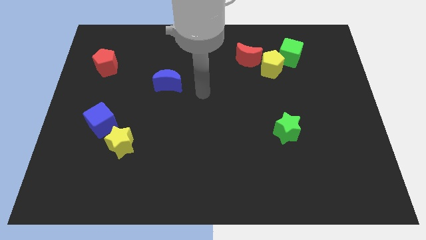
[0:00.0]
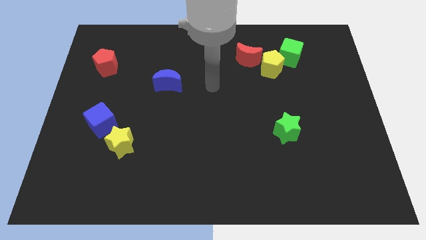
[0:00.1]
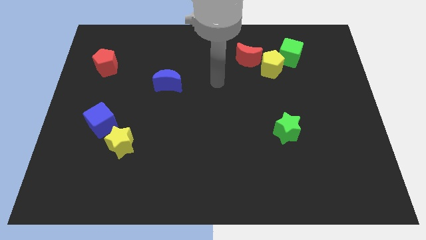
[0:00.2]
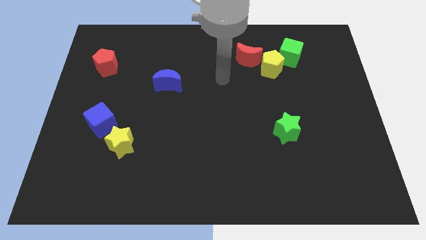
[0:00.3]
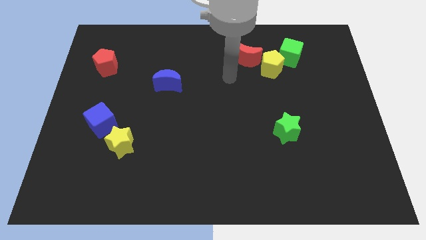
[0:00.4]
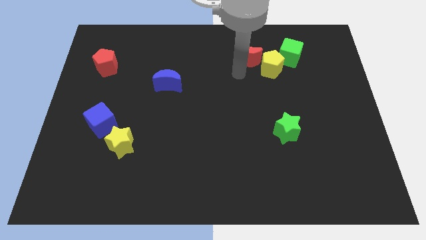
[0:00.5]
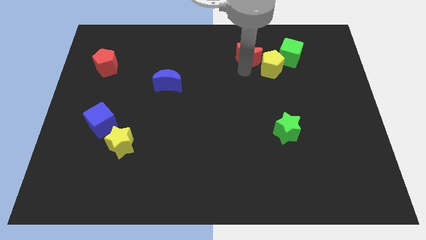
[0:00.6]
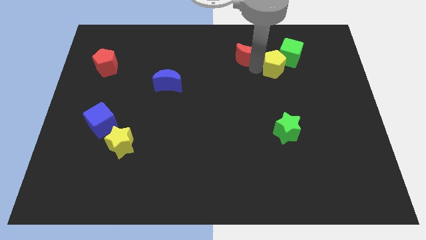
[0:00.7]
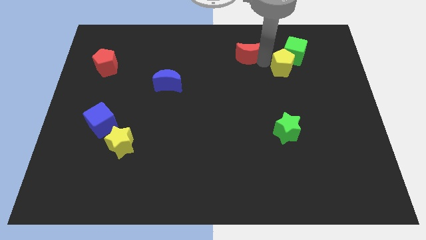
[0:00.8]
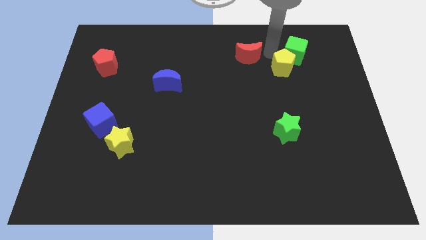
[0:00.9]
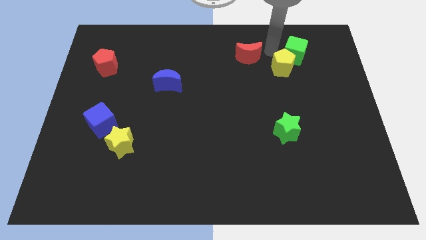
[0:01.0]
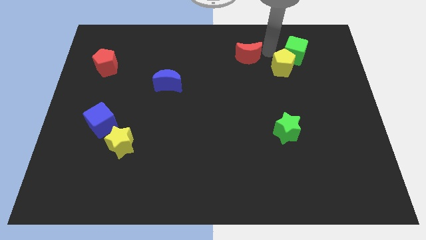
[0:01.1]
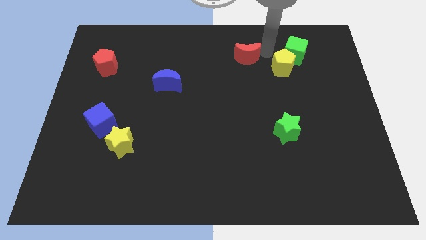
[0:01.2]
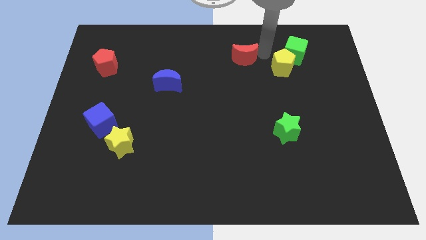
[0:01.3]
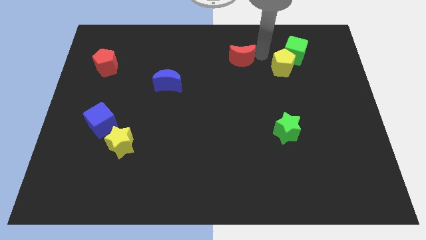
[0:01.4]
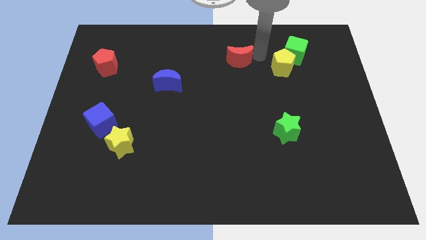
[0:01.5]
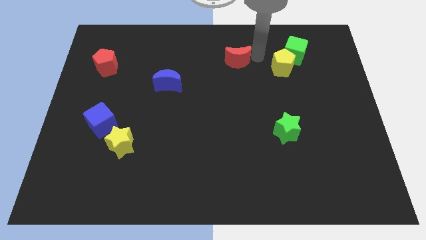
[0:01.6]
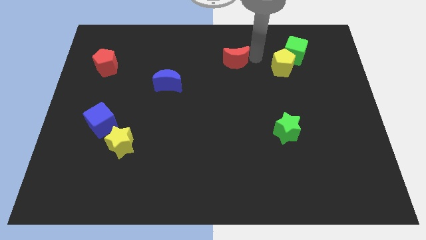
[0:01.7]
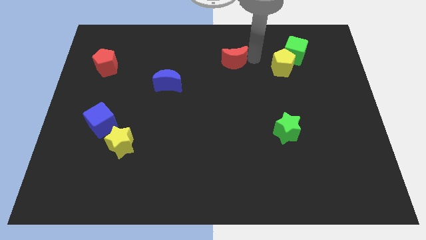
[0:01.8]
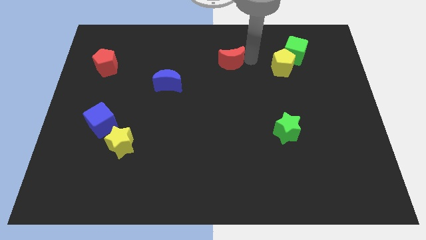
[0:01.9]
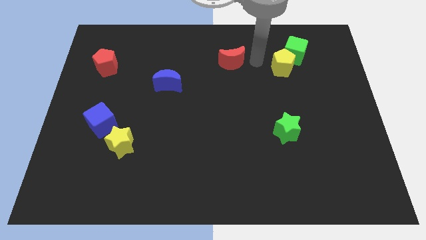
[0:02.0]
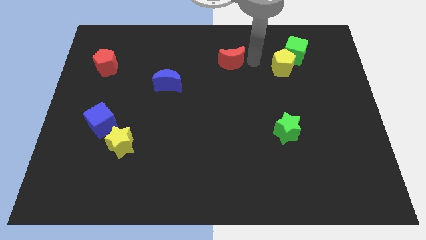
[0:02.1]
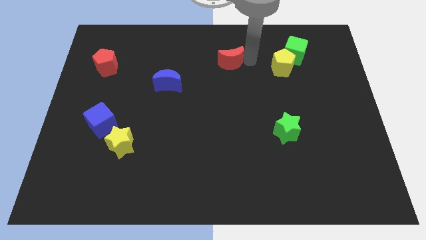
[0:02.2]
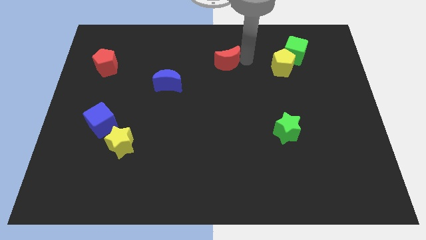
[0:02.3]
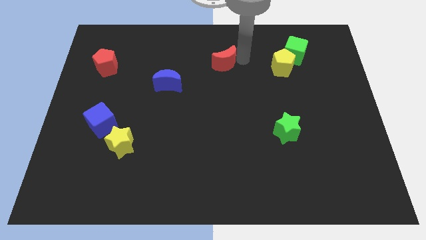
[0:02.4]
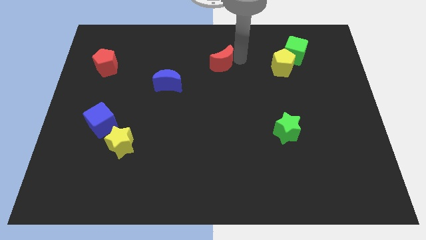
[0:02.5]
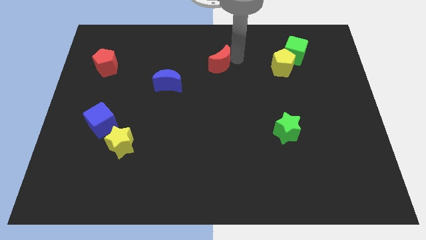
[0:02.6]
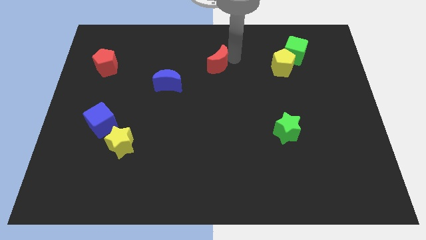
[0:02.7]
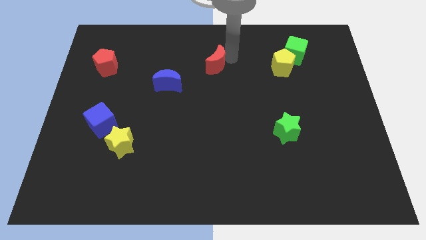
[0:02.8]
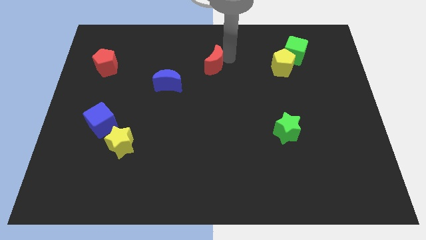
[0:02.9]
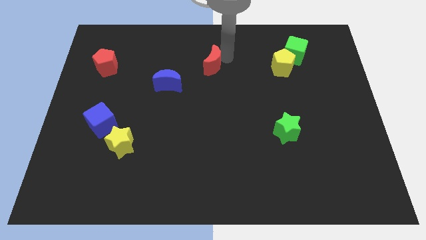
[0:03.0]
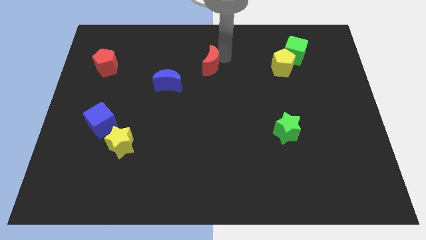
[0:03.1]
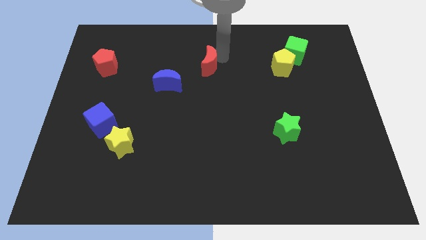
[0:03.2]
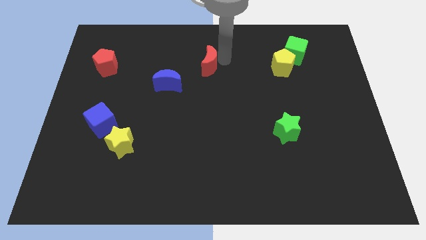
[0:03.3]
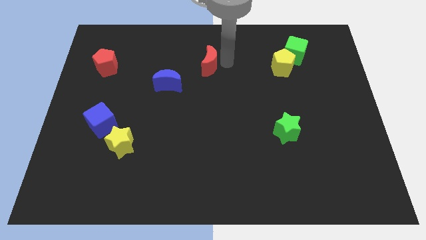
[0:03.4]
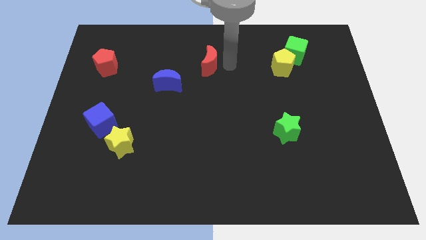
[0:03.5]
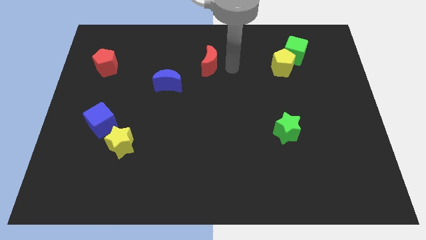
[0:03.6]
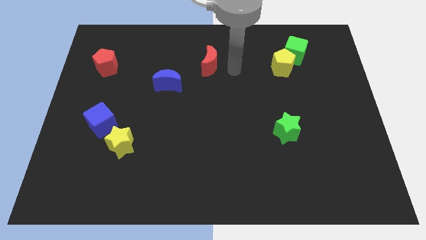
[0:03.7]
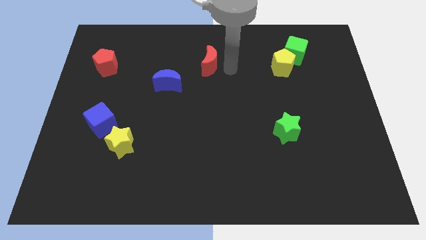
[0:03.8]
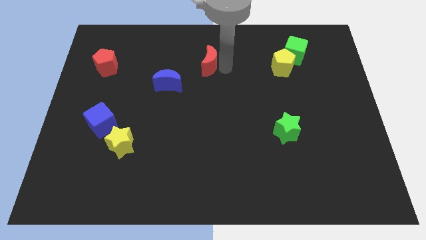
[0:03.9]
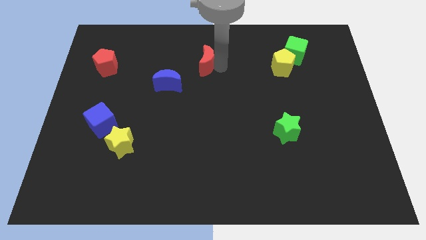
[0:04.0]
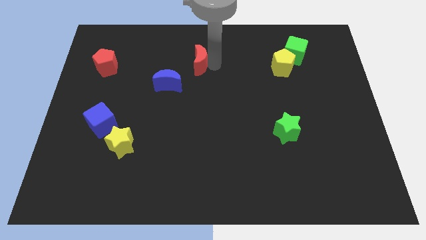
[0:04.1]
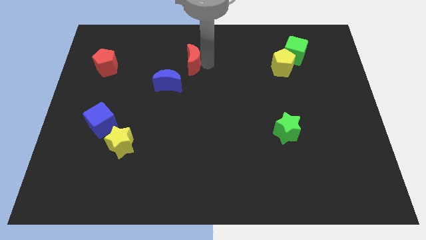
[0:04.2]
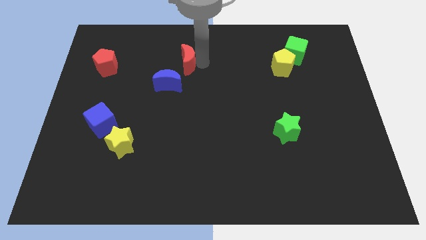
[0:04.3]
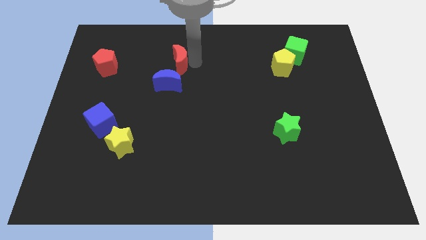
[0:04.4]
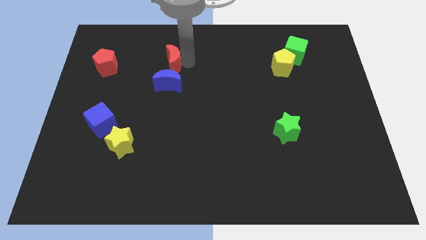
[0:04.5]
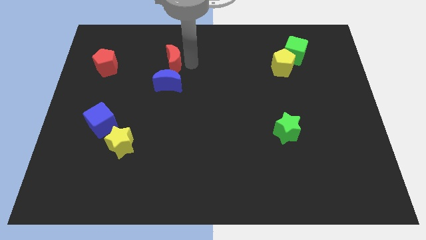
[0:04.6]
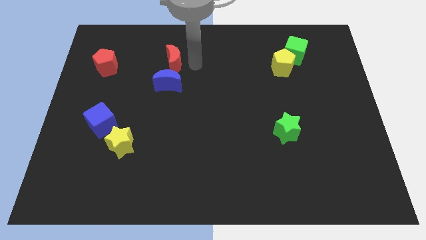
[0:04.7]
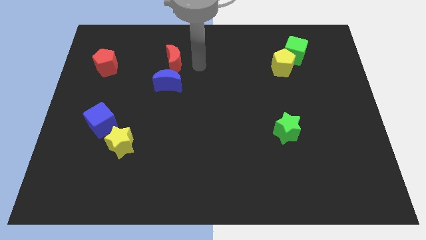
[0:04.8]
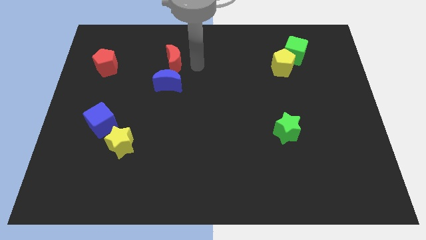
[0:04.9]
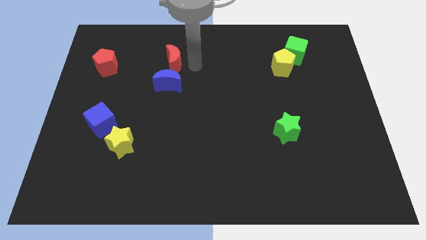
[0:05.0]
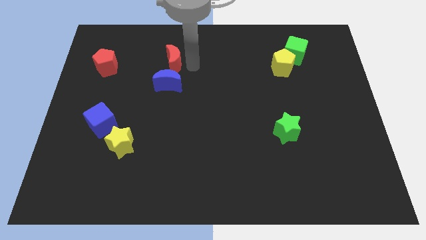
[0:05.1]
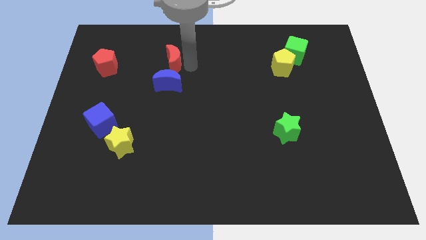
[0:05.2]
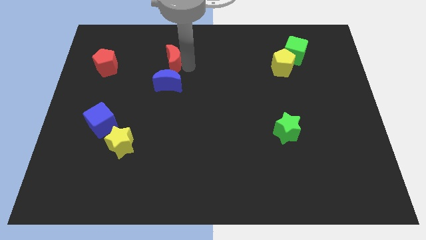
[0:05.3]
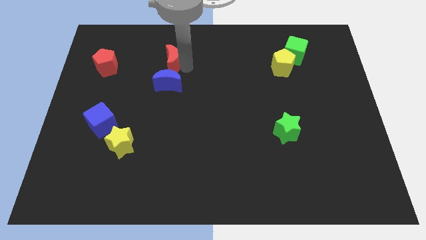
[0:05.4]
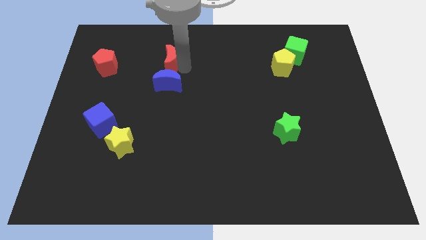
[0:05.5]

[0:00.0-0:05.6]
move the red moon left

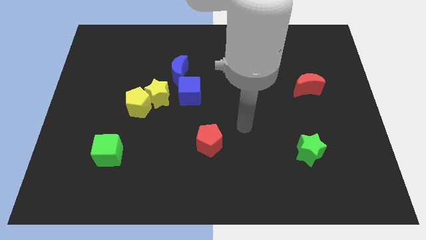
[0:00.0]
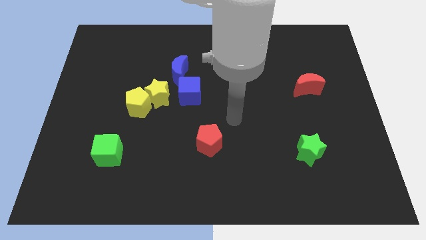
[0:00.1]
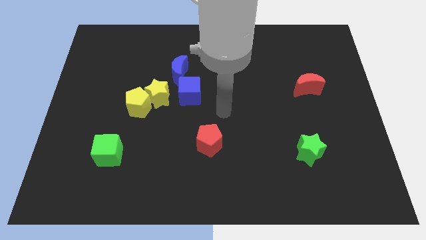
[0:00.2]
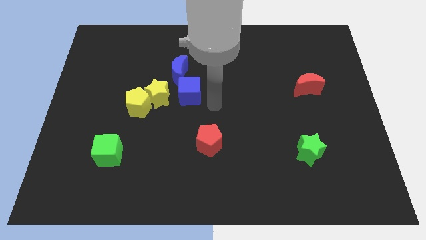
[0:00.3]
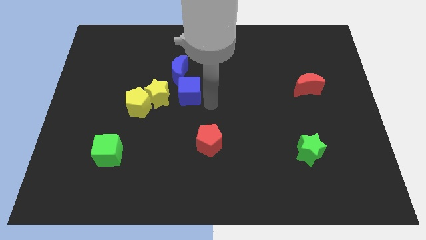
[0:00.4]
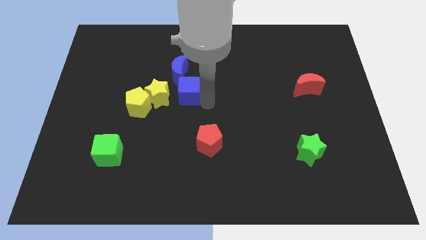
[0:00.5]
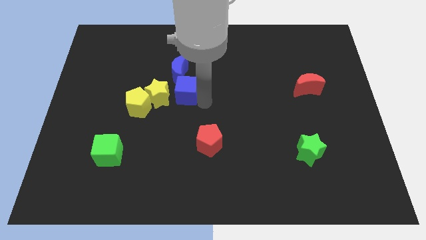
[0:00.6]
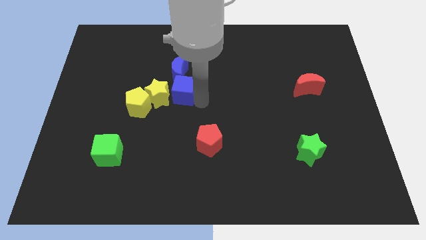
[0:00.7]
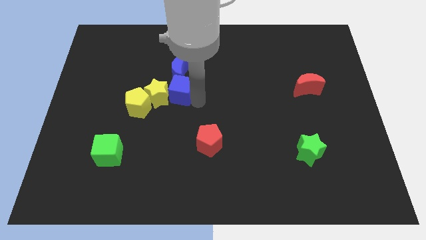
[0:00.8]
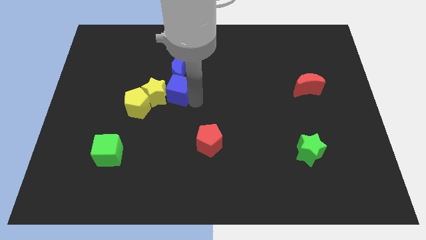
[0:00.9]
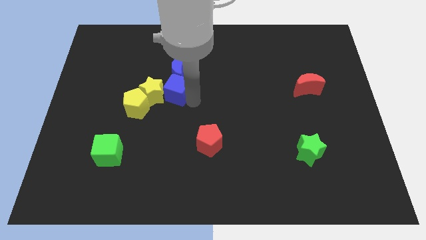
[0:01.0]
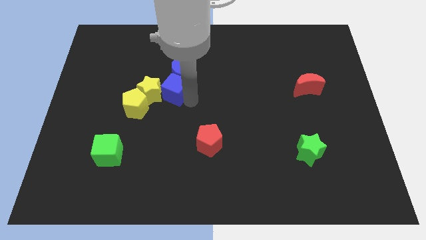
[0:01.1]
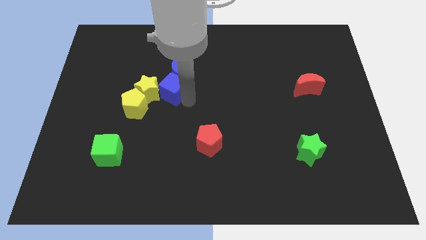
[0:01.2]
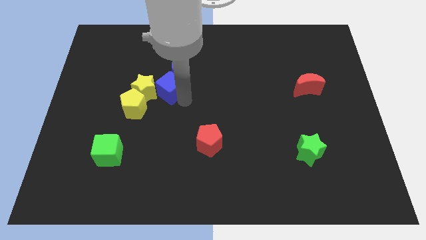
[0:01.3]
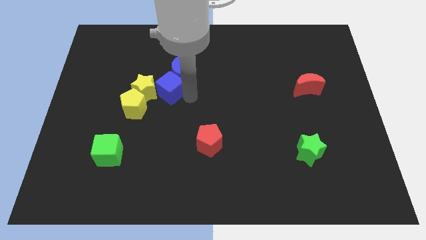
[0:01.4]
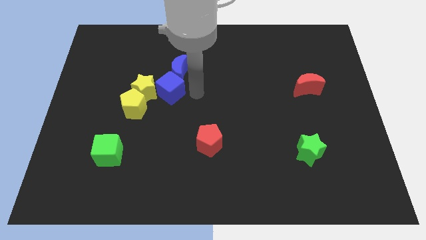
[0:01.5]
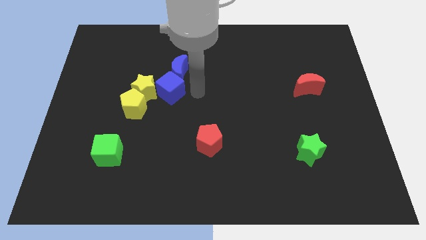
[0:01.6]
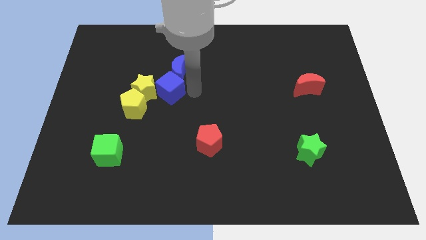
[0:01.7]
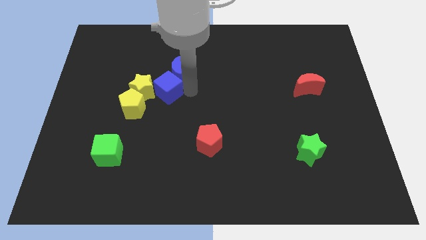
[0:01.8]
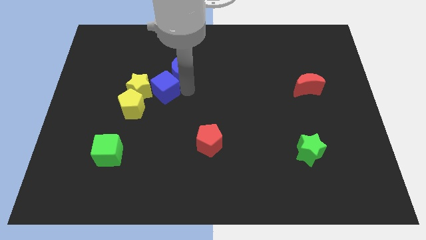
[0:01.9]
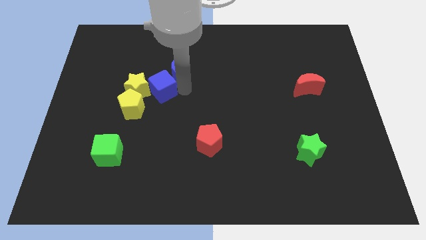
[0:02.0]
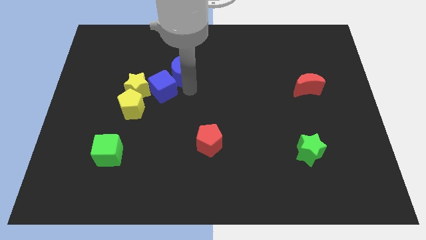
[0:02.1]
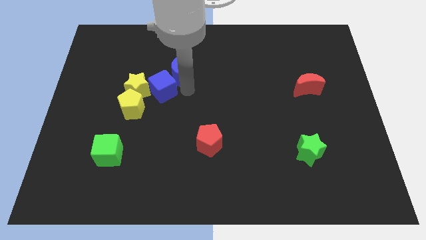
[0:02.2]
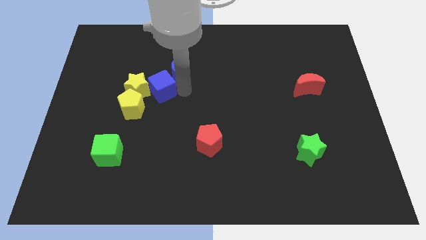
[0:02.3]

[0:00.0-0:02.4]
push the blue cube left somewhat

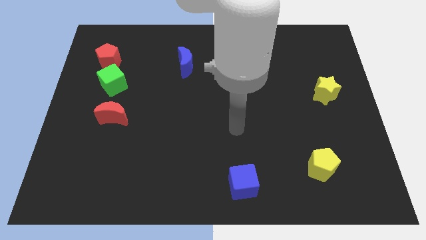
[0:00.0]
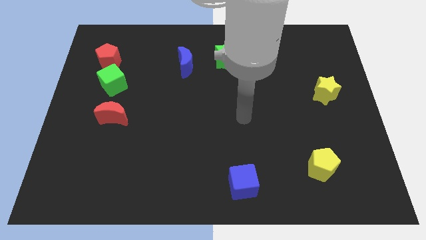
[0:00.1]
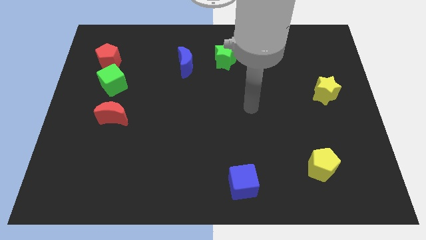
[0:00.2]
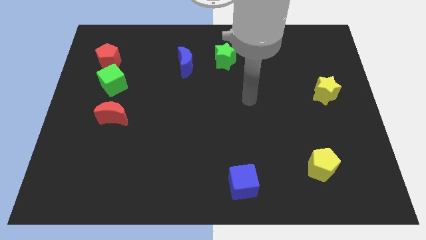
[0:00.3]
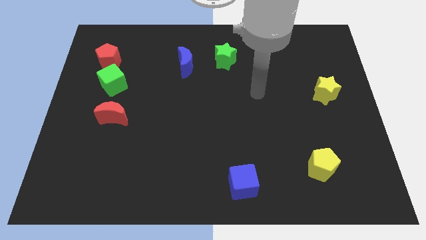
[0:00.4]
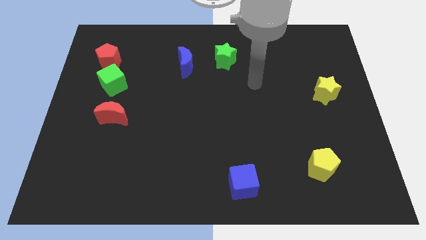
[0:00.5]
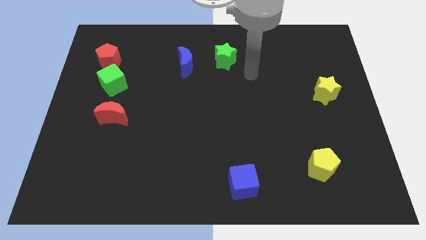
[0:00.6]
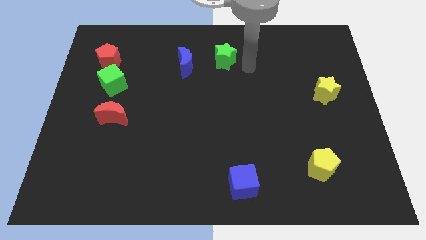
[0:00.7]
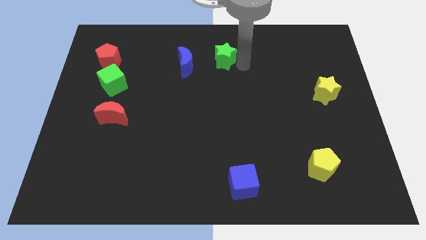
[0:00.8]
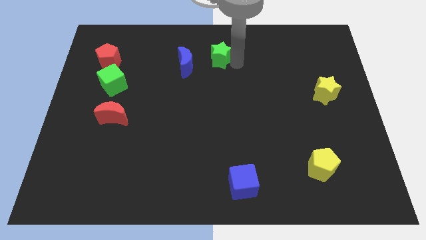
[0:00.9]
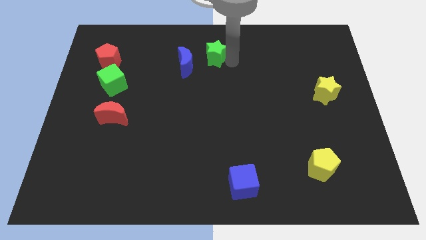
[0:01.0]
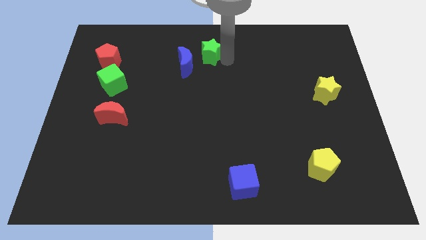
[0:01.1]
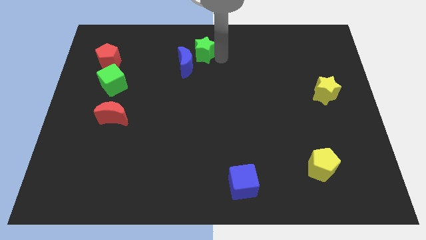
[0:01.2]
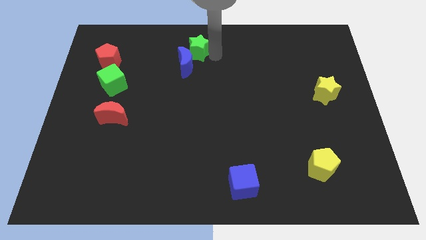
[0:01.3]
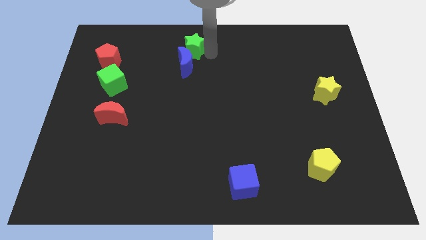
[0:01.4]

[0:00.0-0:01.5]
move the green star to the left a little
